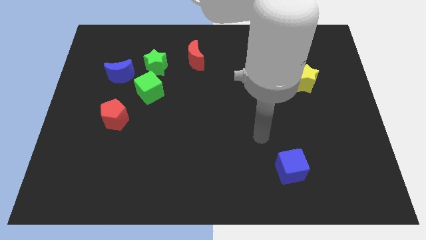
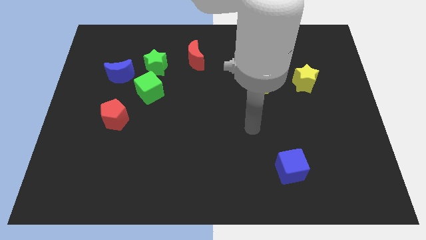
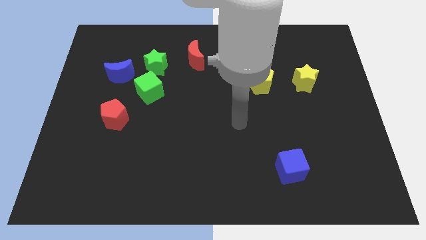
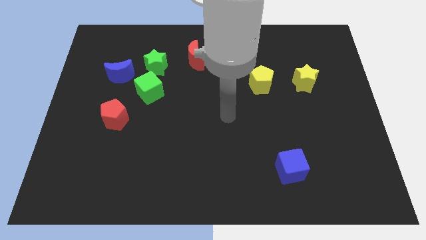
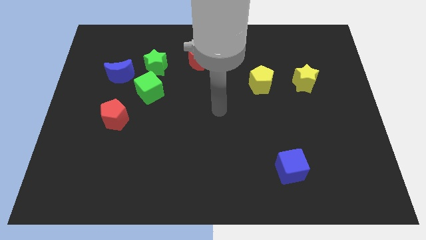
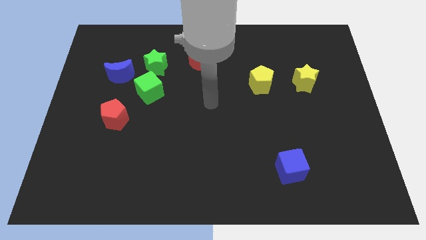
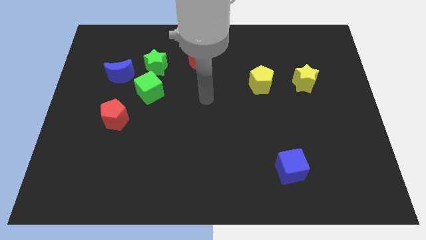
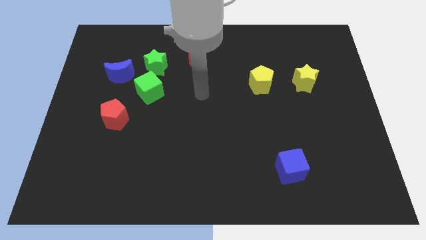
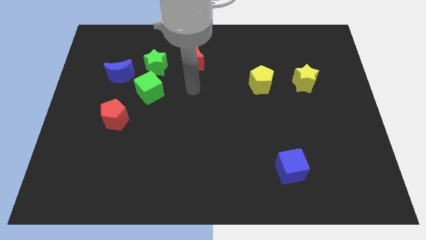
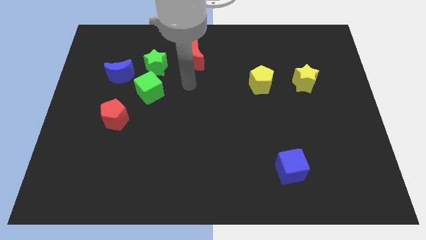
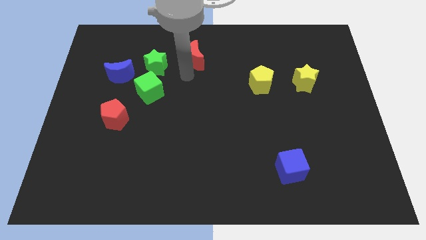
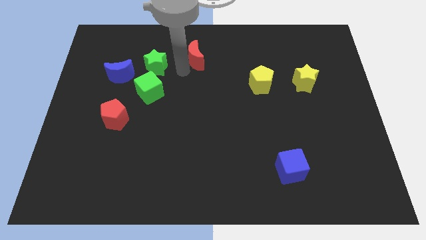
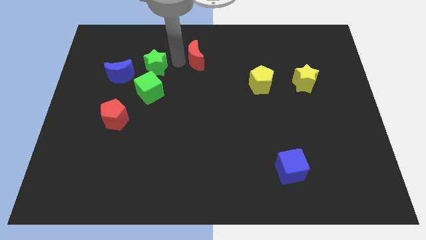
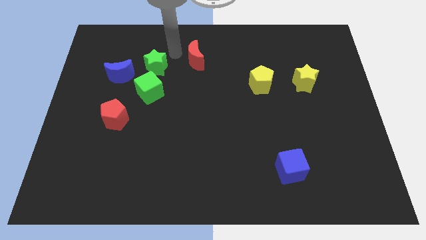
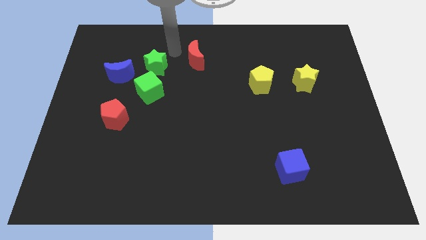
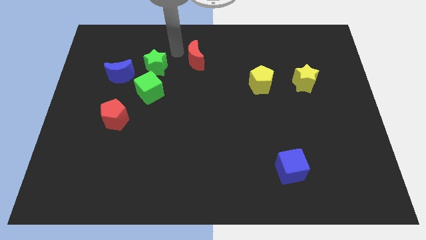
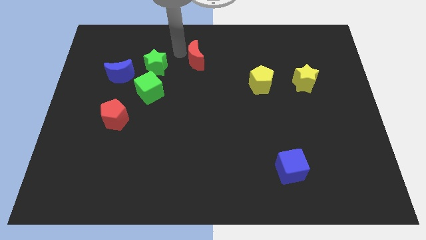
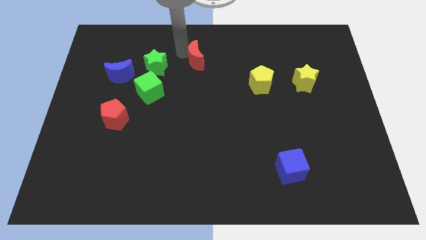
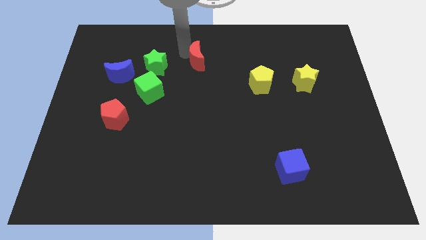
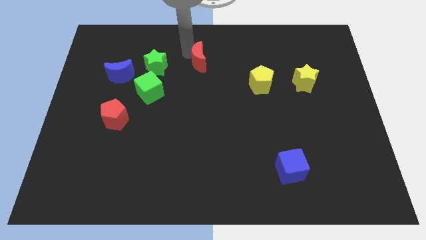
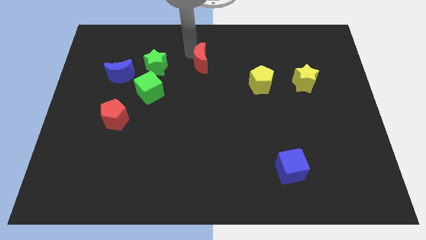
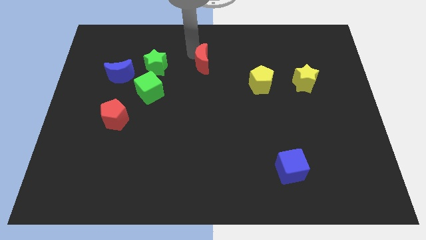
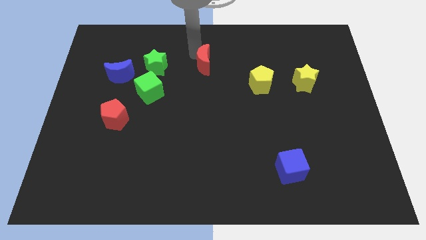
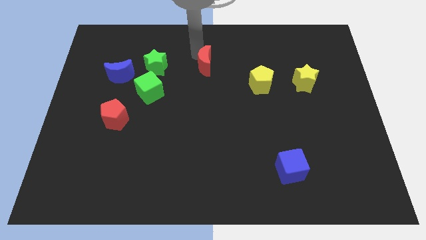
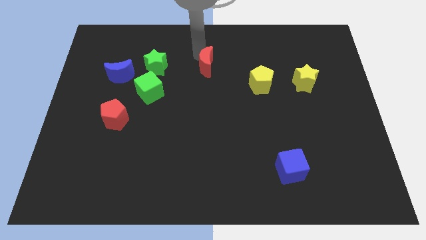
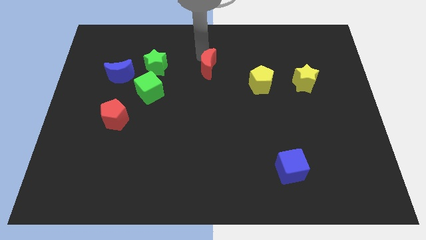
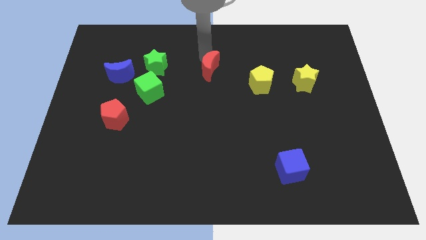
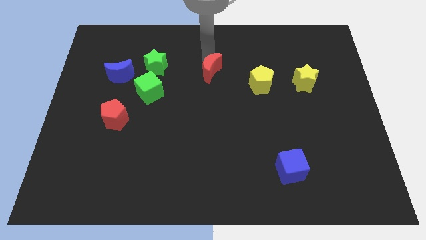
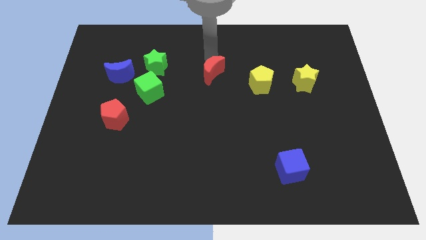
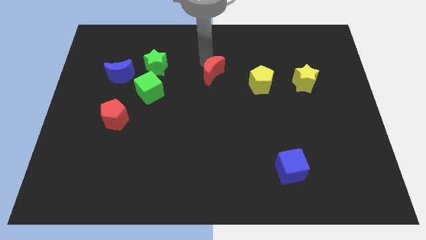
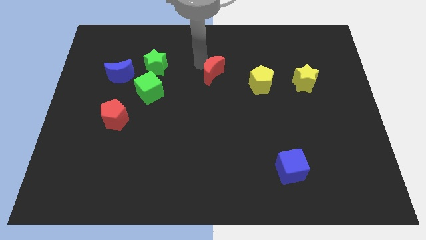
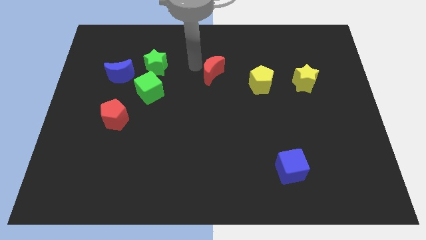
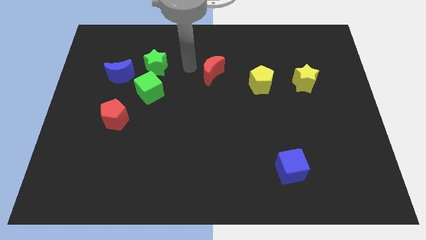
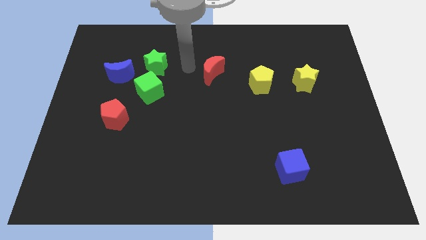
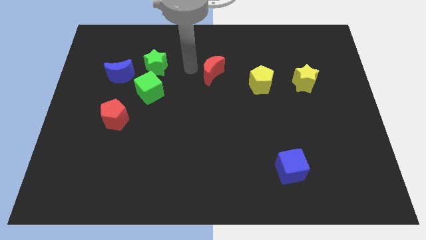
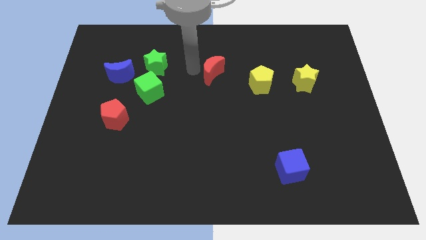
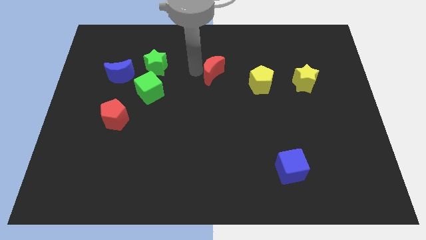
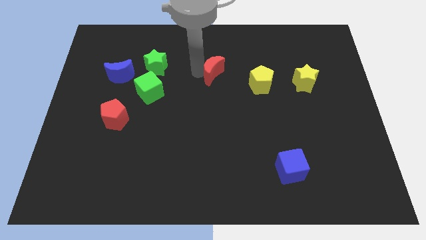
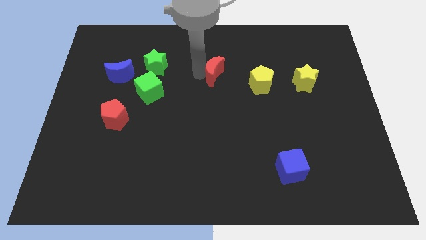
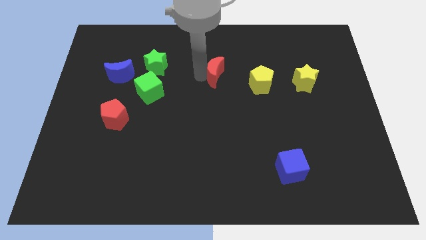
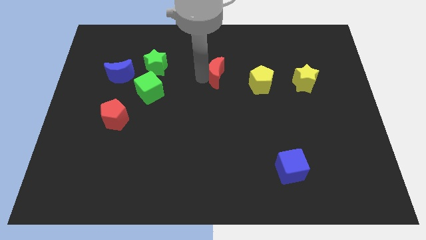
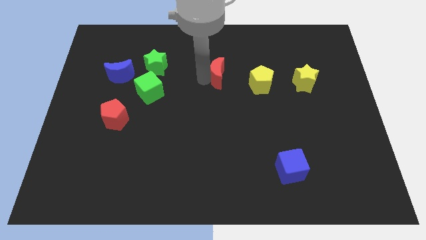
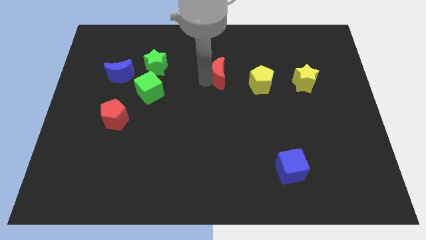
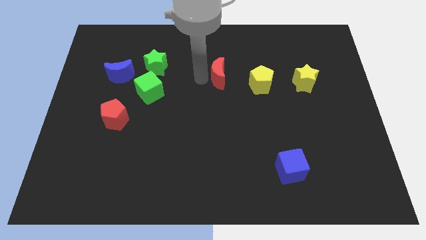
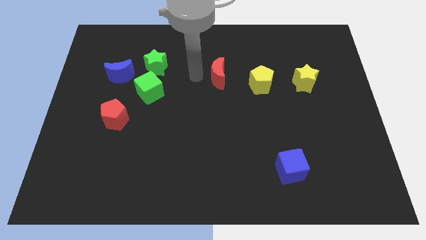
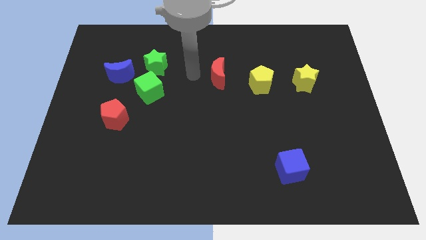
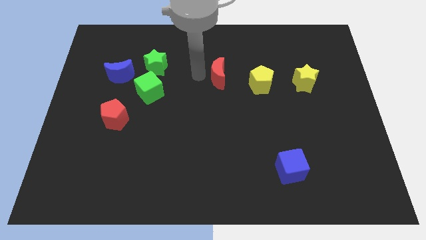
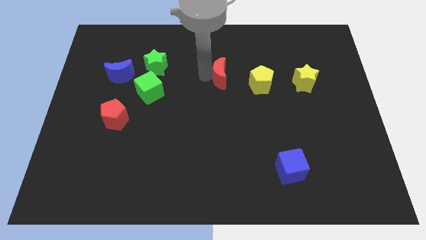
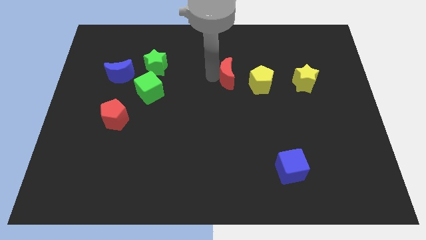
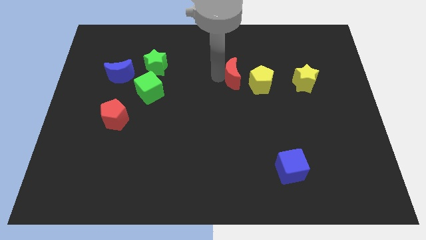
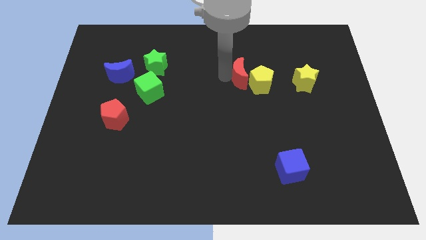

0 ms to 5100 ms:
put the red moon towards the yellow pentagon

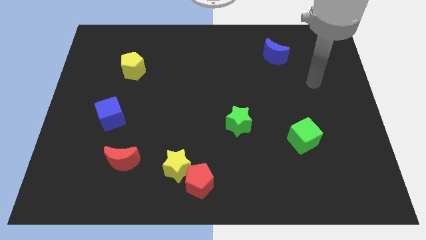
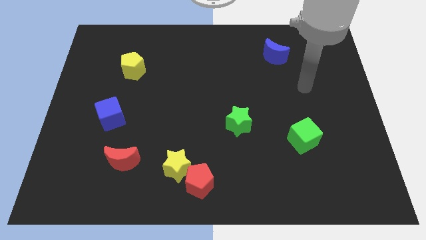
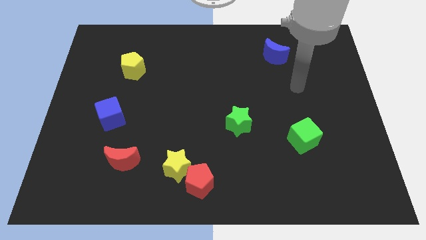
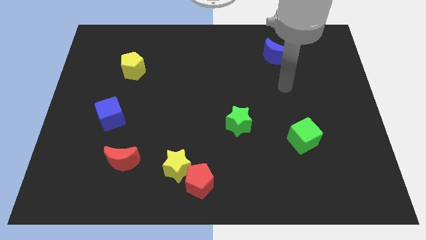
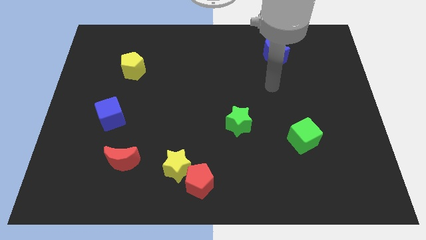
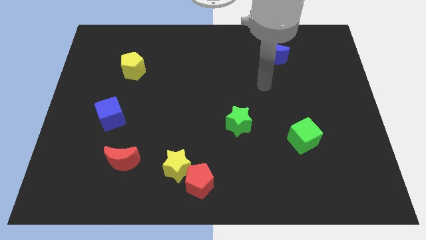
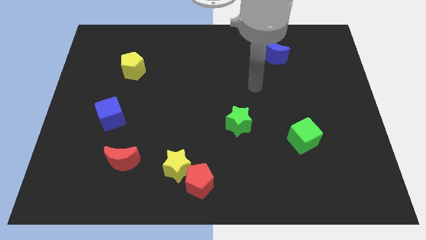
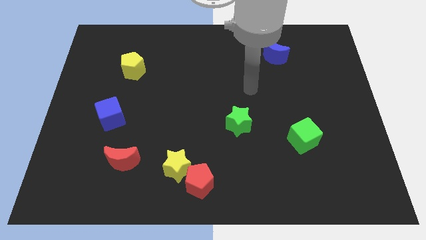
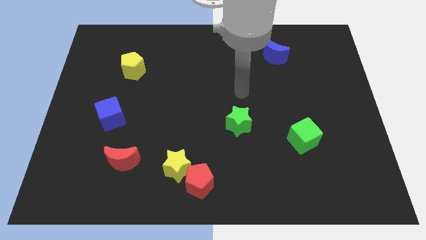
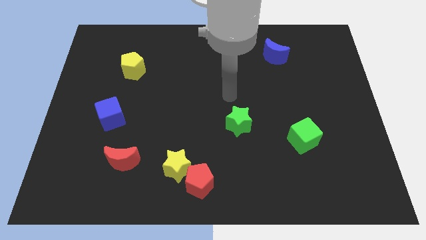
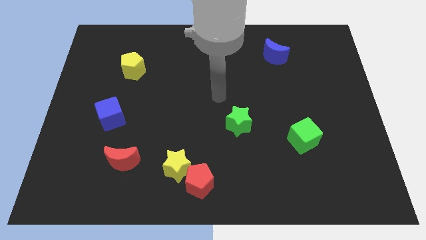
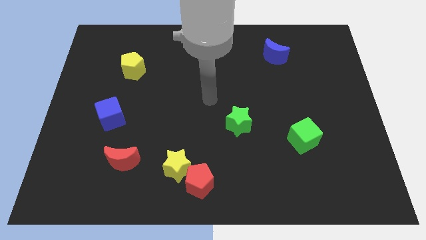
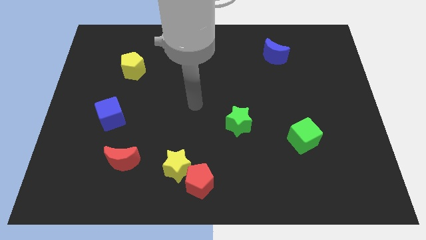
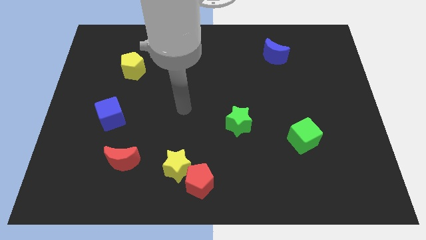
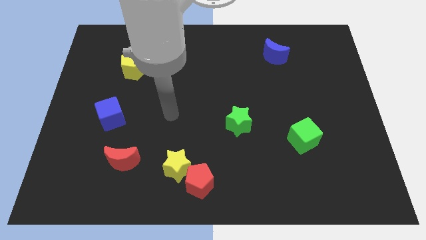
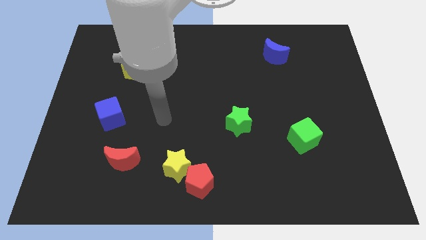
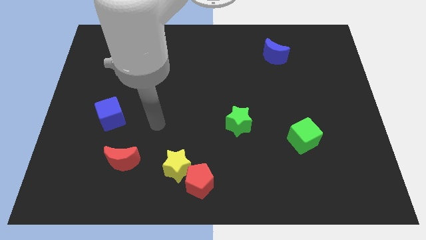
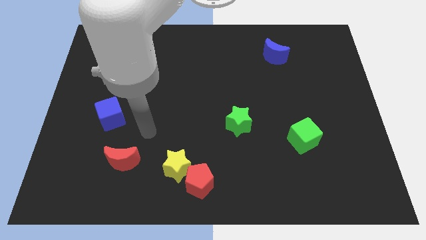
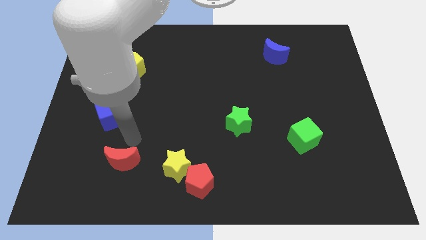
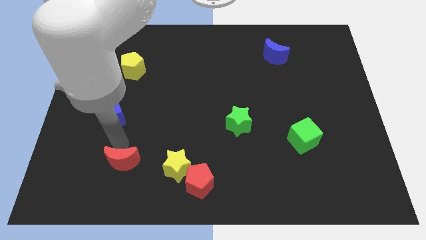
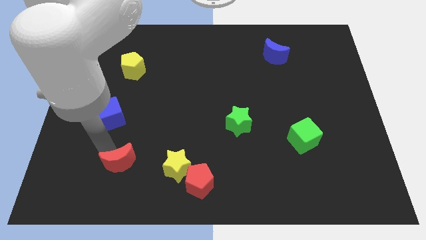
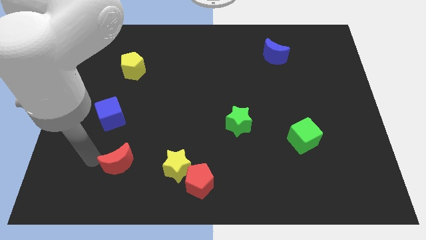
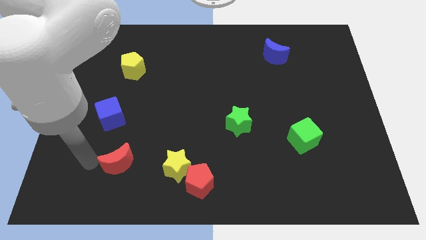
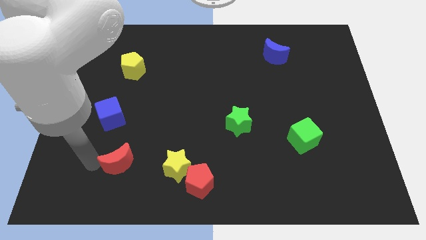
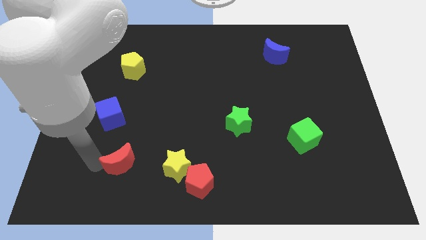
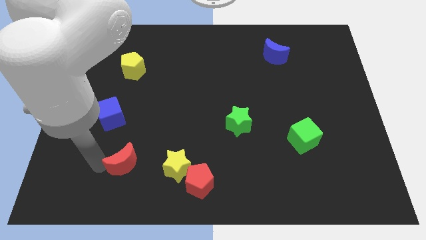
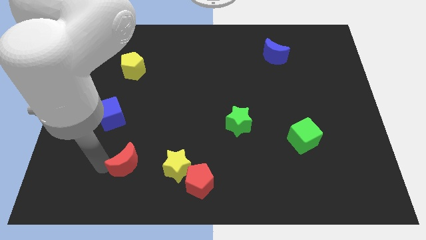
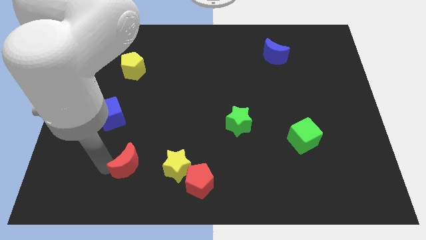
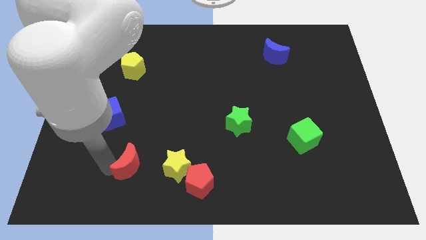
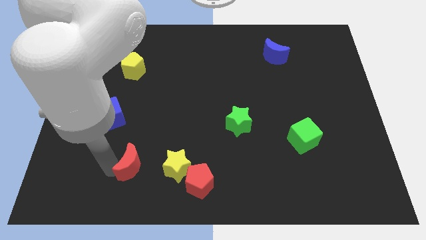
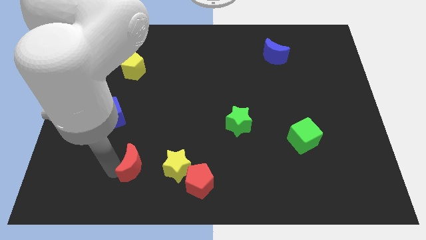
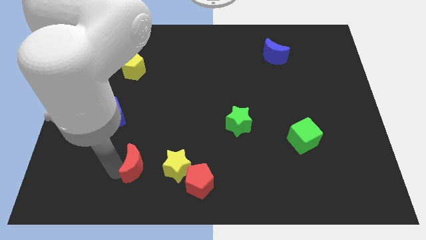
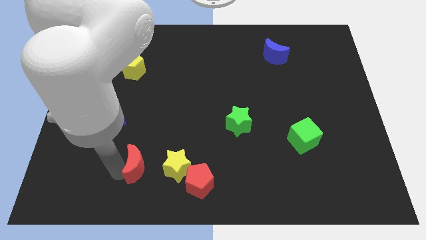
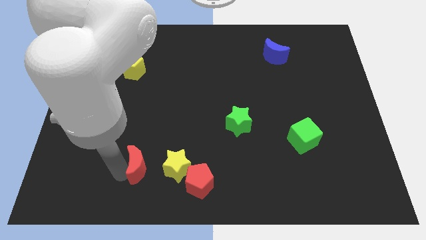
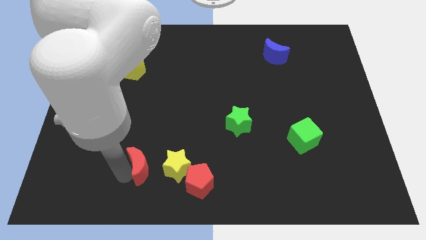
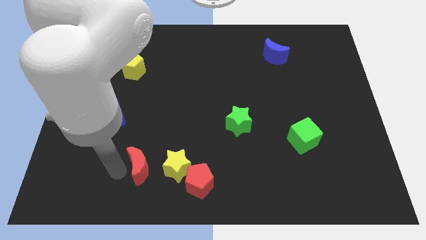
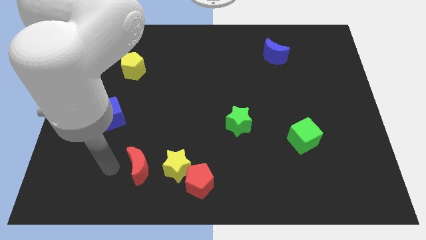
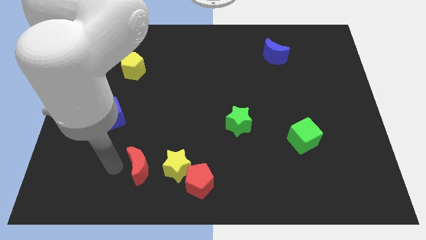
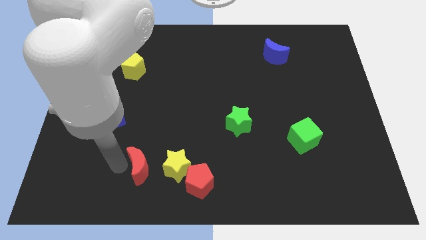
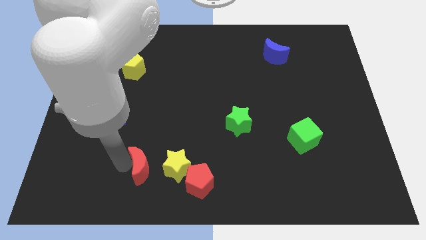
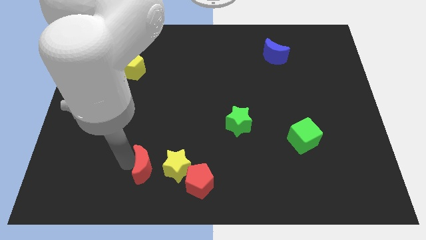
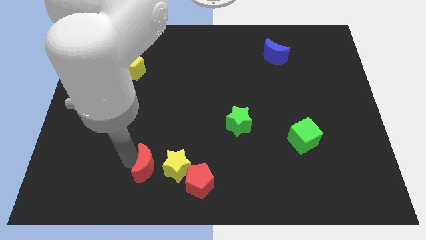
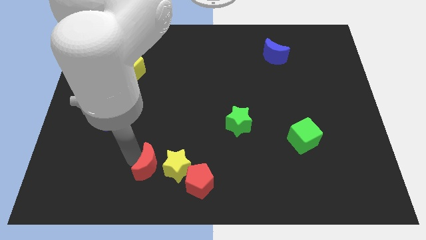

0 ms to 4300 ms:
put the red moon close to the yellow star
